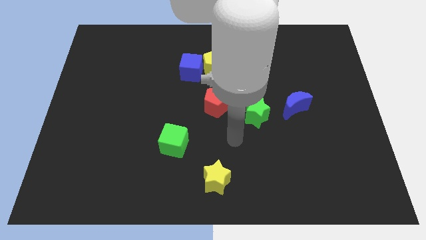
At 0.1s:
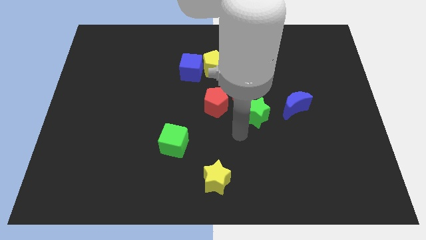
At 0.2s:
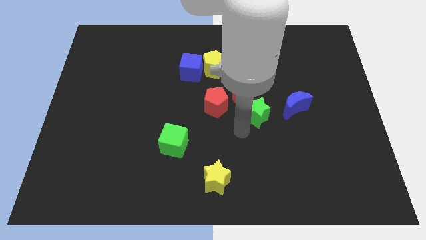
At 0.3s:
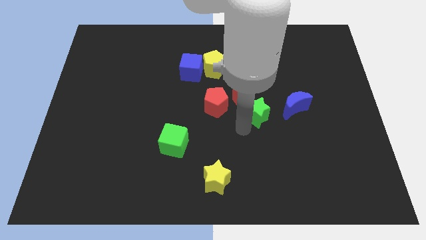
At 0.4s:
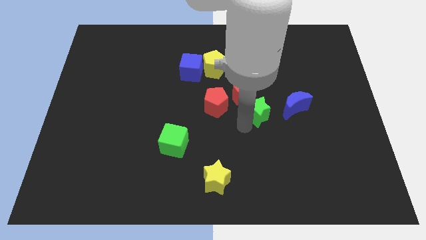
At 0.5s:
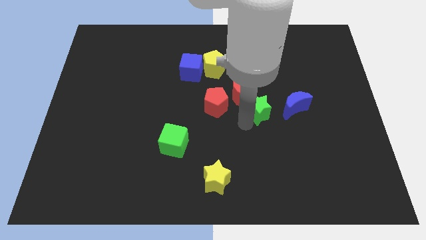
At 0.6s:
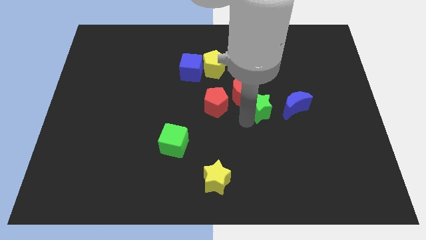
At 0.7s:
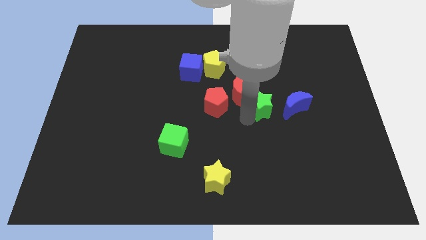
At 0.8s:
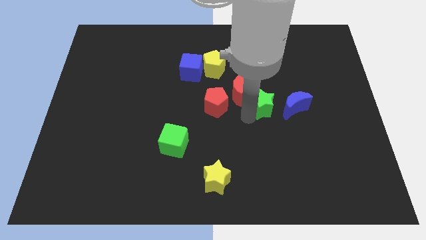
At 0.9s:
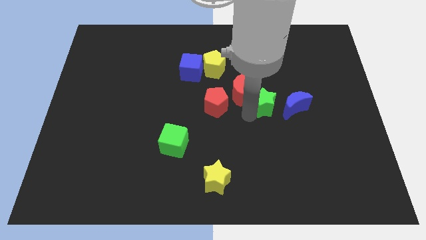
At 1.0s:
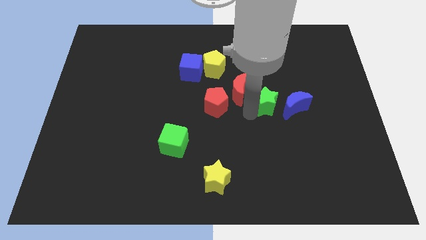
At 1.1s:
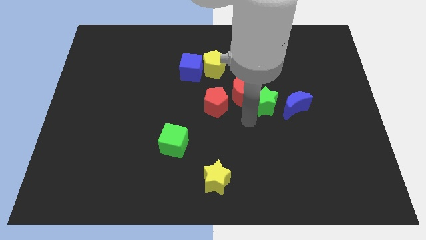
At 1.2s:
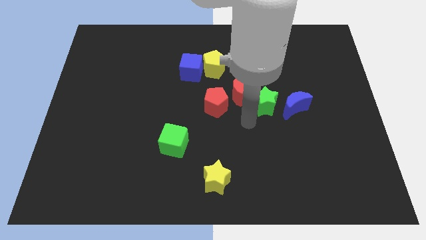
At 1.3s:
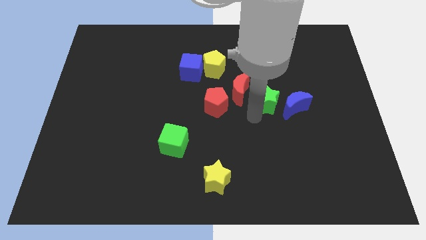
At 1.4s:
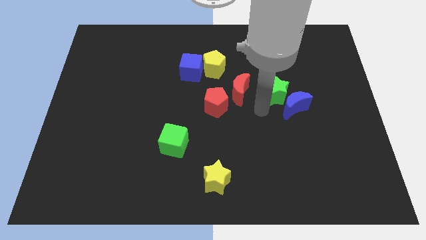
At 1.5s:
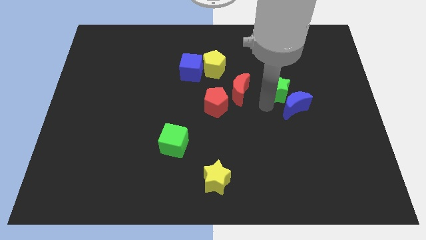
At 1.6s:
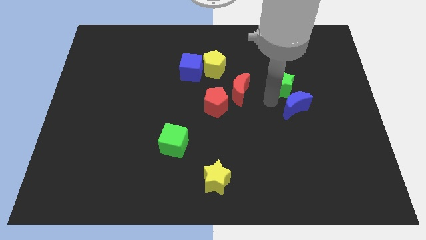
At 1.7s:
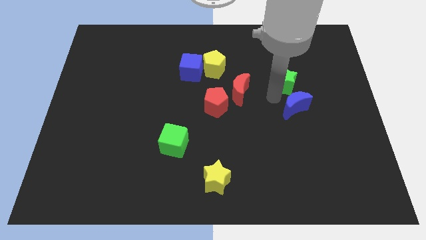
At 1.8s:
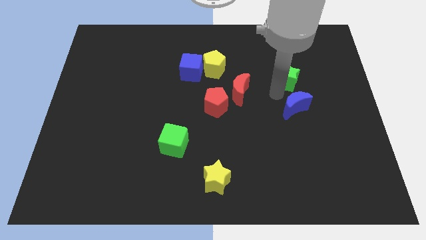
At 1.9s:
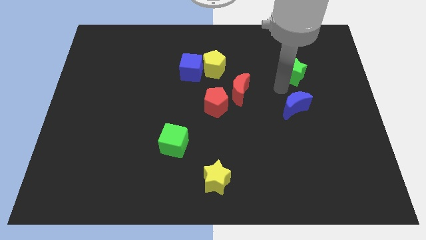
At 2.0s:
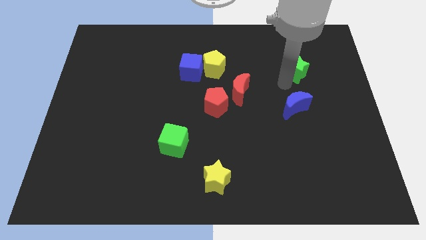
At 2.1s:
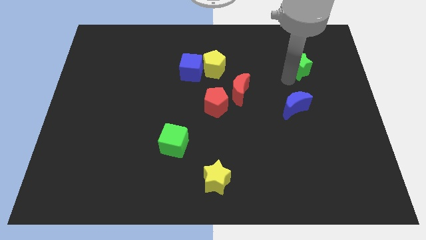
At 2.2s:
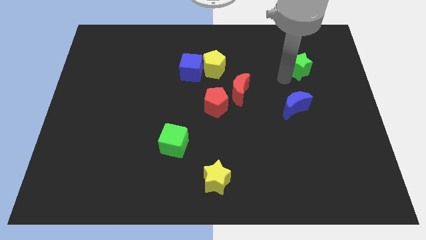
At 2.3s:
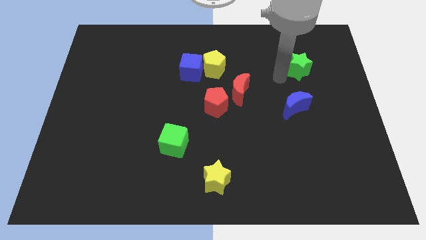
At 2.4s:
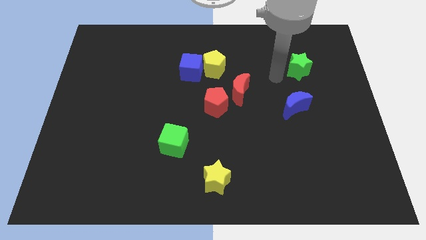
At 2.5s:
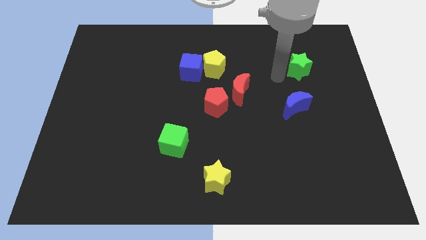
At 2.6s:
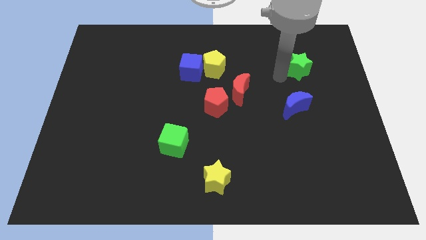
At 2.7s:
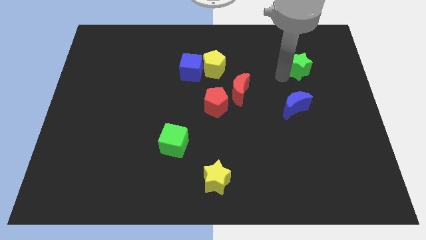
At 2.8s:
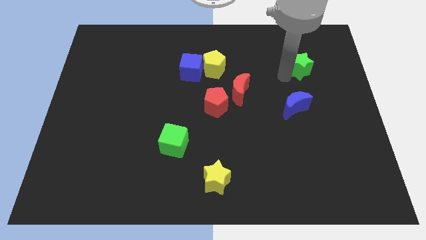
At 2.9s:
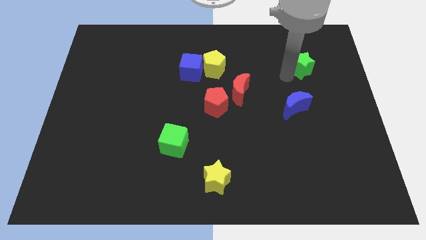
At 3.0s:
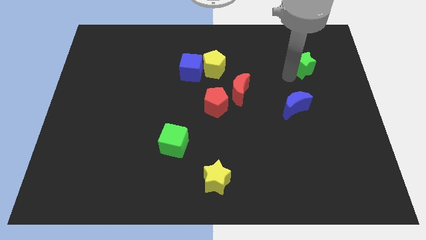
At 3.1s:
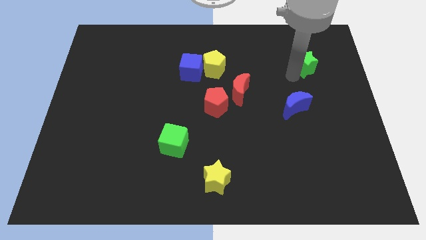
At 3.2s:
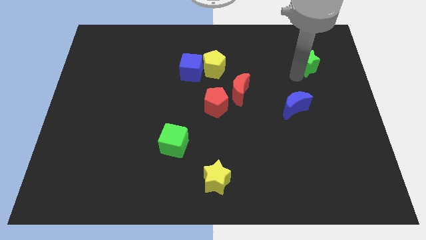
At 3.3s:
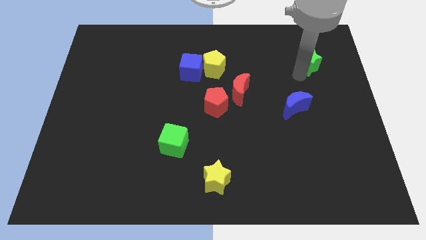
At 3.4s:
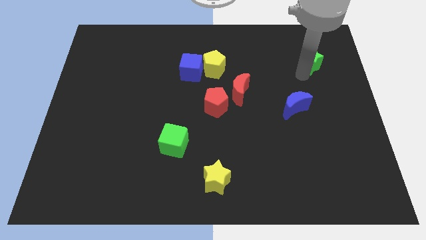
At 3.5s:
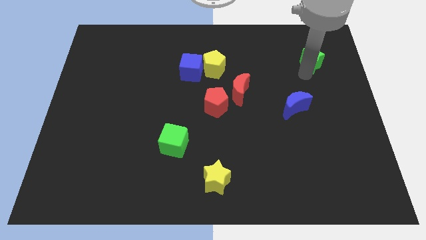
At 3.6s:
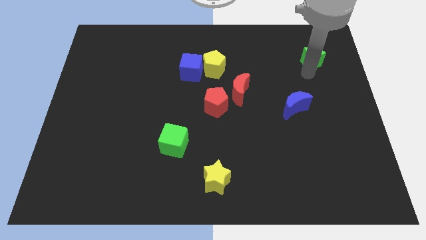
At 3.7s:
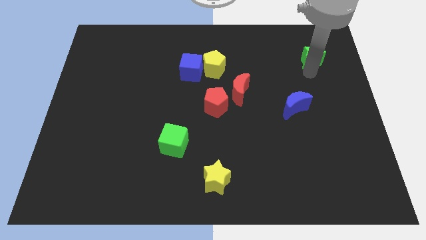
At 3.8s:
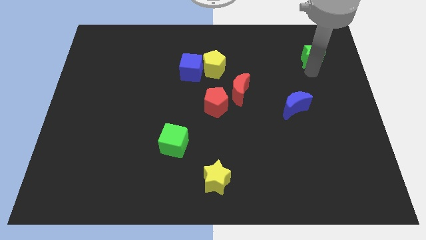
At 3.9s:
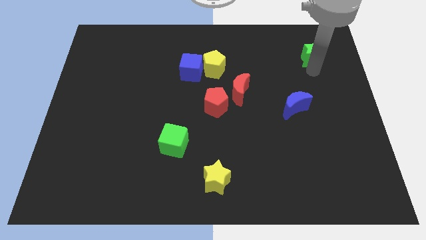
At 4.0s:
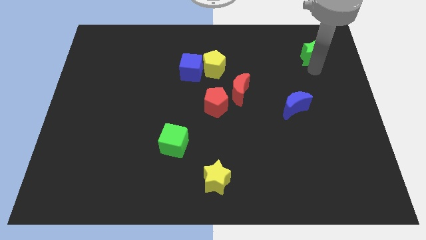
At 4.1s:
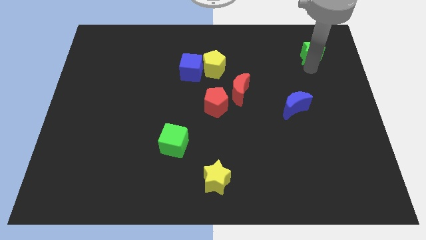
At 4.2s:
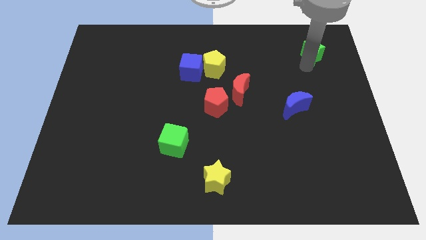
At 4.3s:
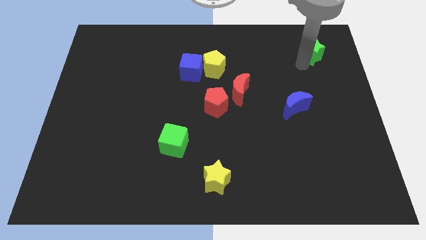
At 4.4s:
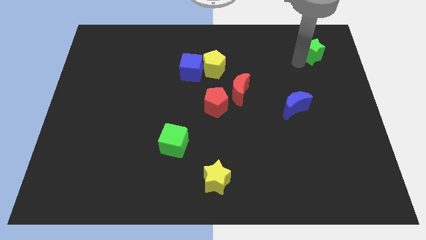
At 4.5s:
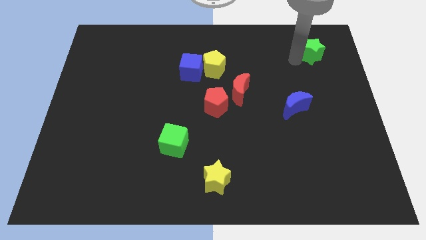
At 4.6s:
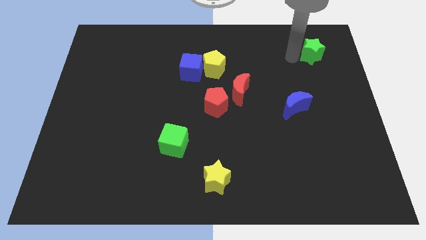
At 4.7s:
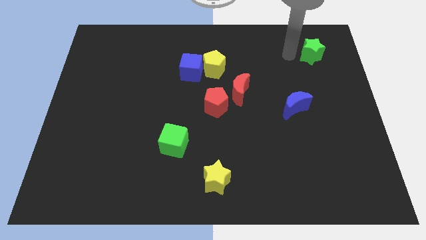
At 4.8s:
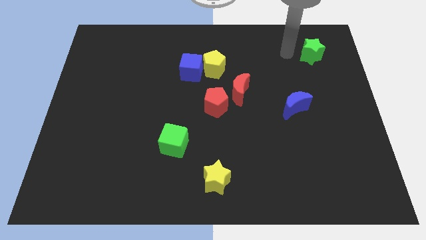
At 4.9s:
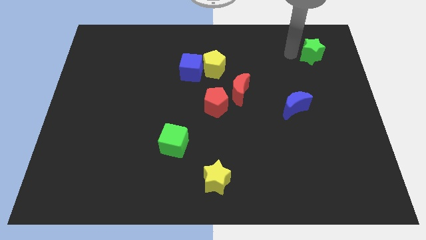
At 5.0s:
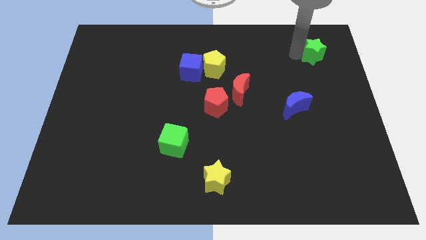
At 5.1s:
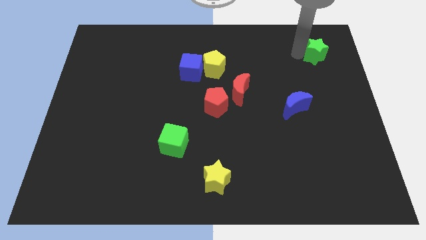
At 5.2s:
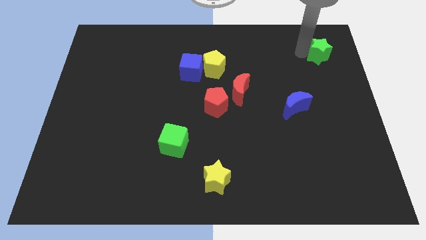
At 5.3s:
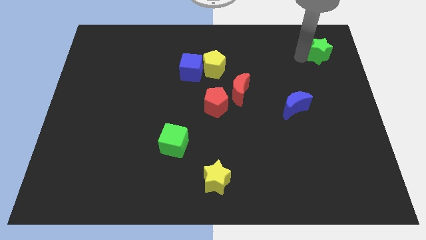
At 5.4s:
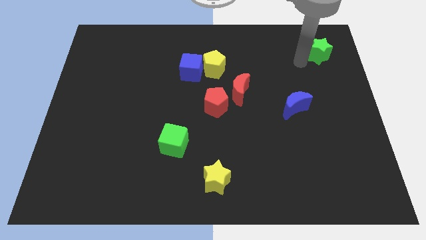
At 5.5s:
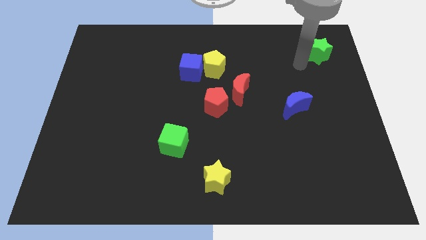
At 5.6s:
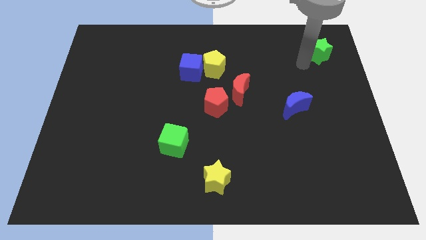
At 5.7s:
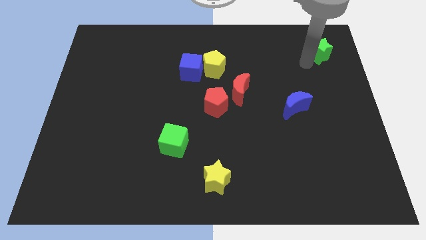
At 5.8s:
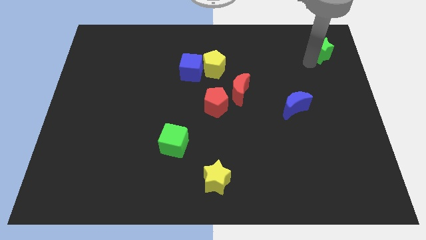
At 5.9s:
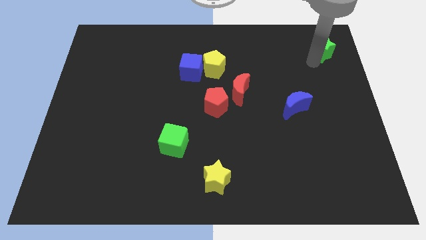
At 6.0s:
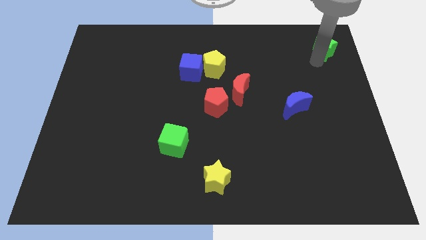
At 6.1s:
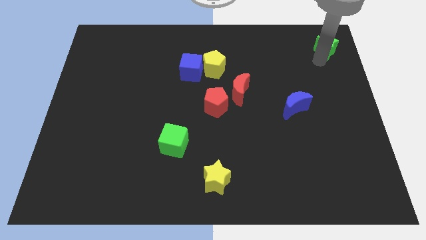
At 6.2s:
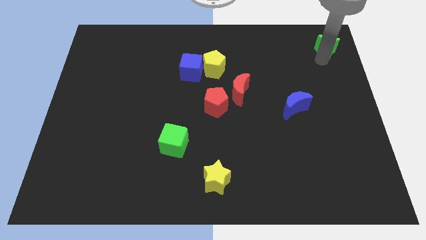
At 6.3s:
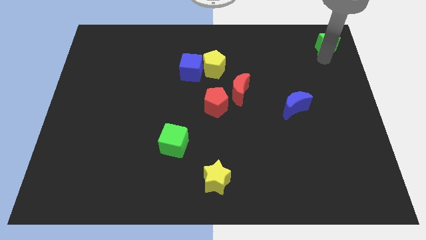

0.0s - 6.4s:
move the green star to the upper right corner
